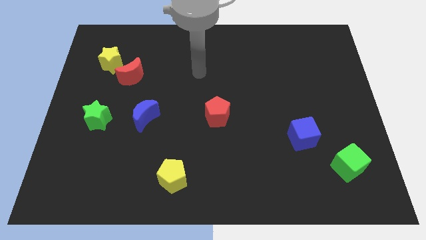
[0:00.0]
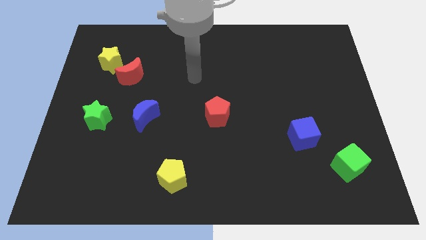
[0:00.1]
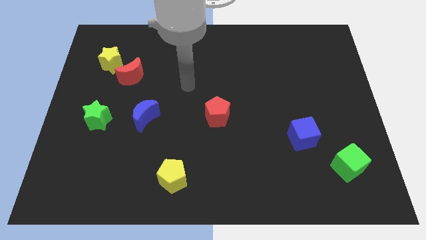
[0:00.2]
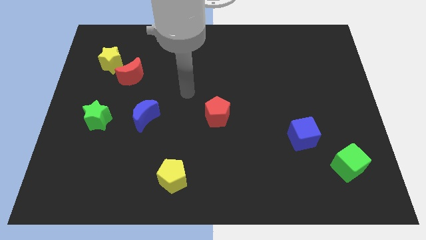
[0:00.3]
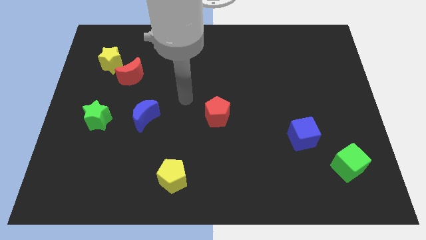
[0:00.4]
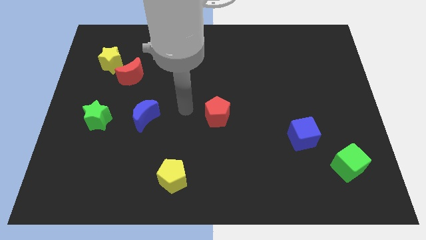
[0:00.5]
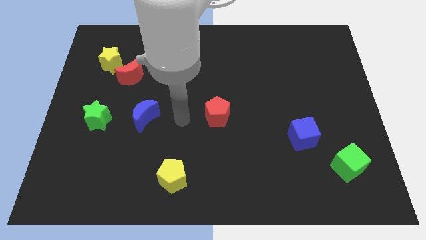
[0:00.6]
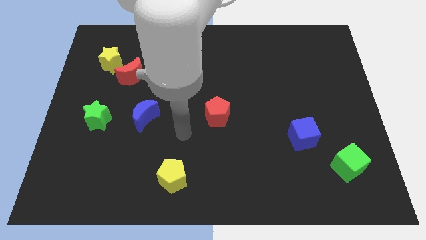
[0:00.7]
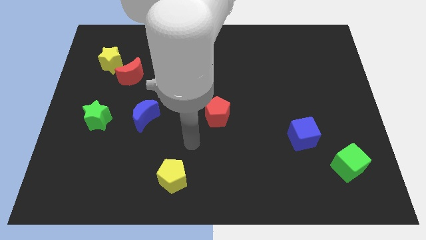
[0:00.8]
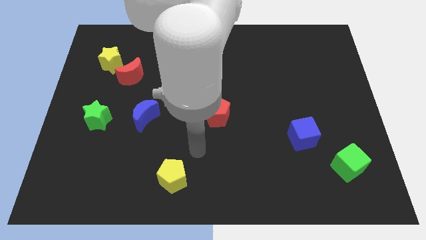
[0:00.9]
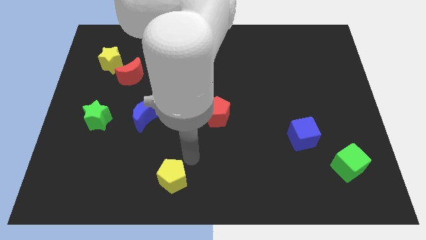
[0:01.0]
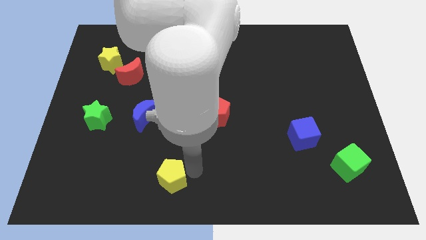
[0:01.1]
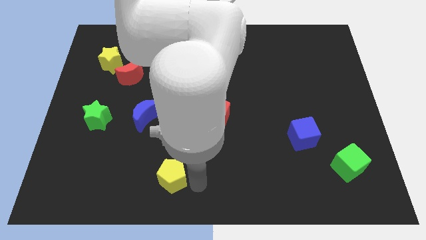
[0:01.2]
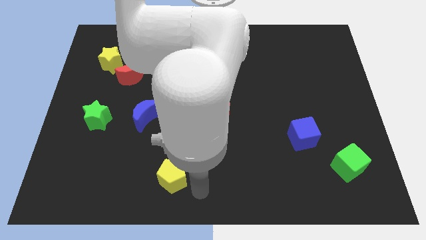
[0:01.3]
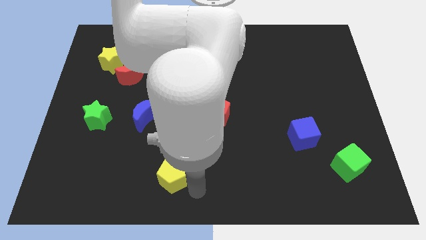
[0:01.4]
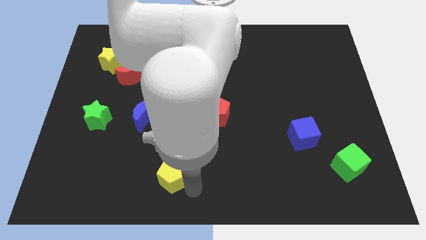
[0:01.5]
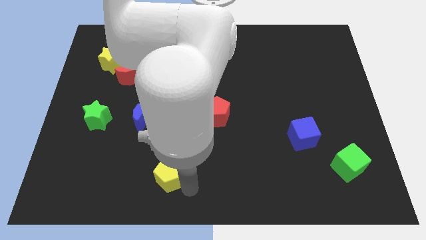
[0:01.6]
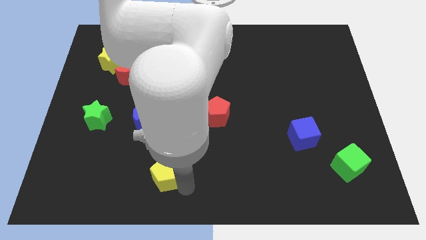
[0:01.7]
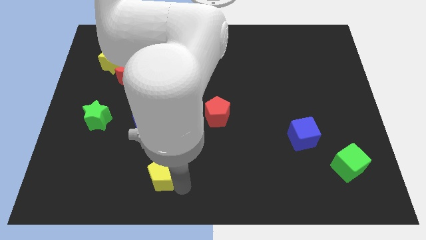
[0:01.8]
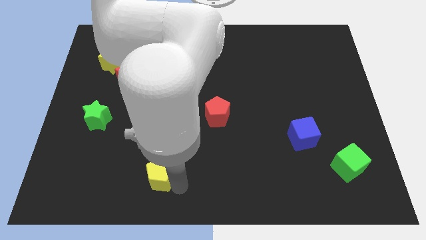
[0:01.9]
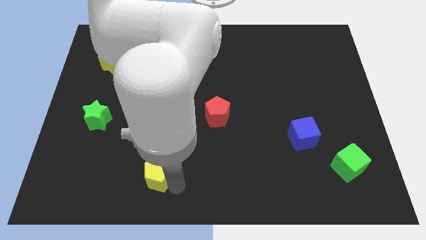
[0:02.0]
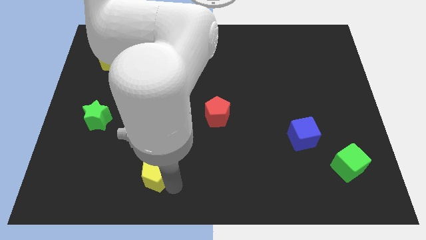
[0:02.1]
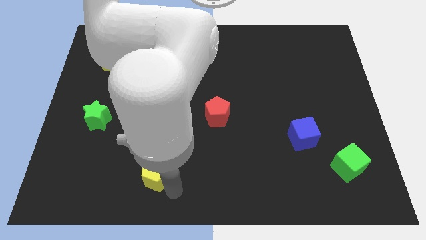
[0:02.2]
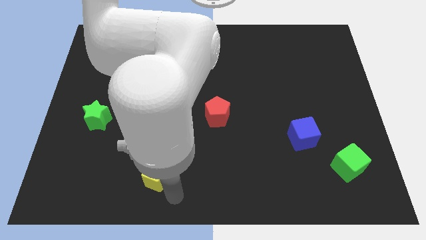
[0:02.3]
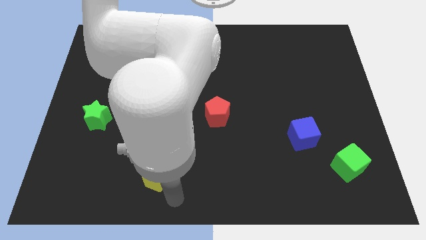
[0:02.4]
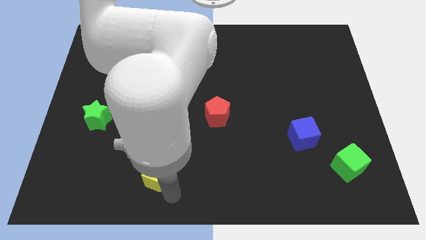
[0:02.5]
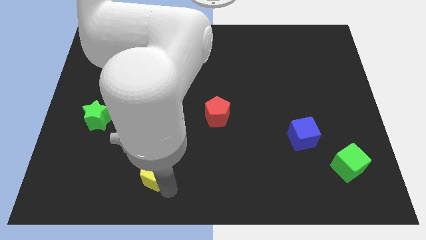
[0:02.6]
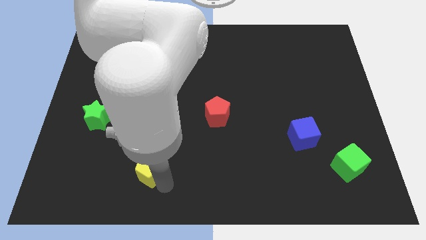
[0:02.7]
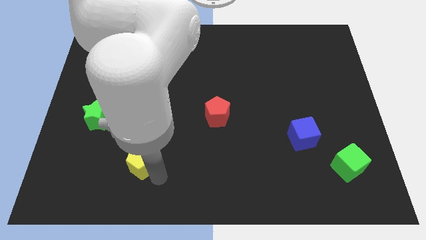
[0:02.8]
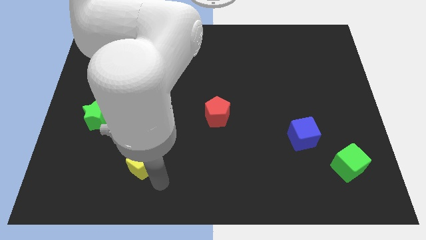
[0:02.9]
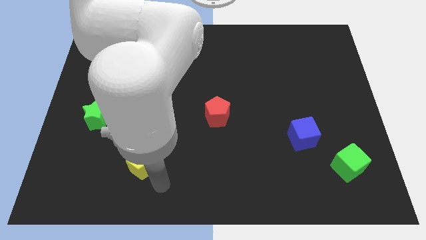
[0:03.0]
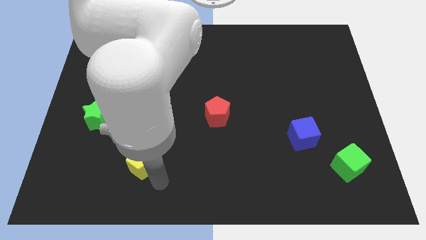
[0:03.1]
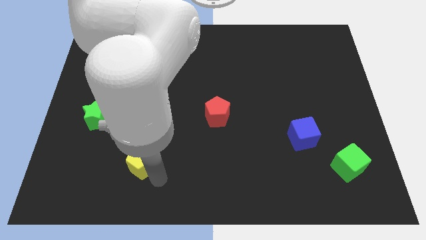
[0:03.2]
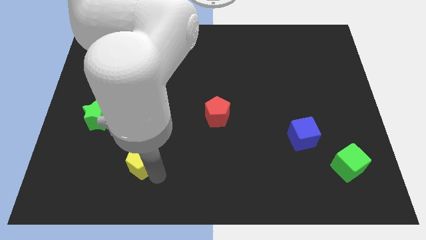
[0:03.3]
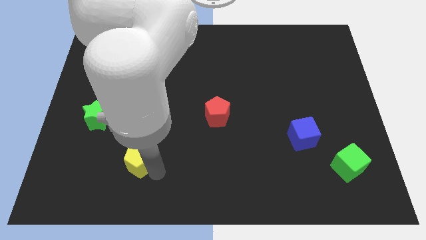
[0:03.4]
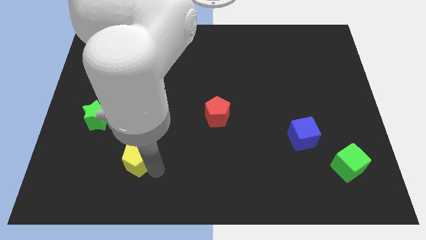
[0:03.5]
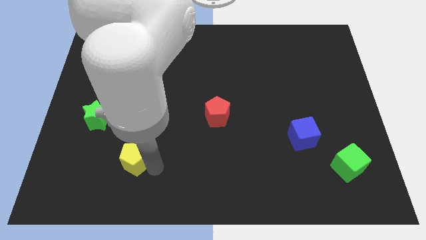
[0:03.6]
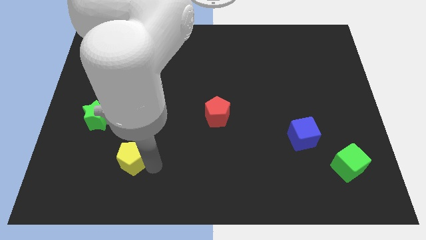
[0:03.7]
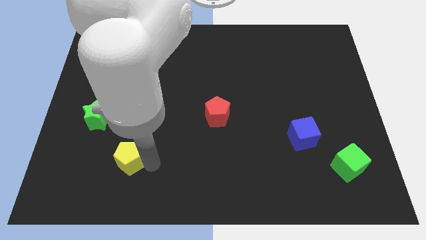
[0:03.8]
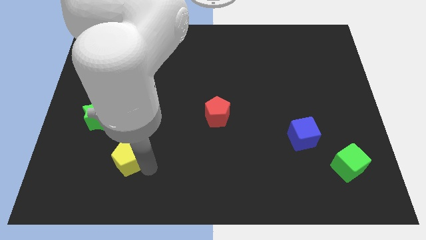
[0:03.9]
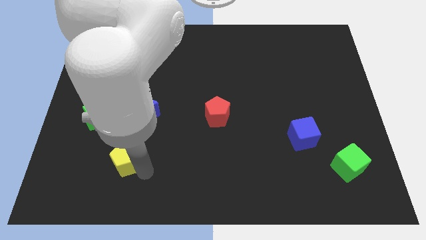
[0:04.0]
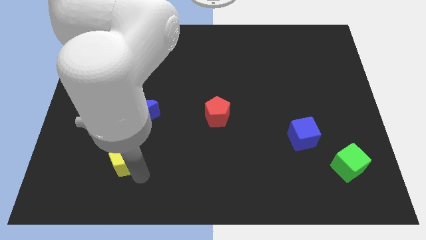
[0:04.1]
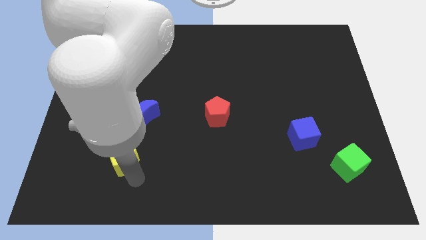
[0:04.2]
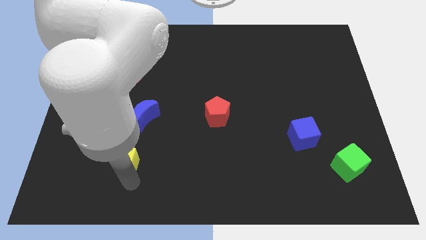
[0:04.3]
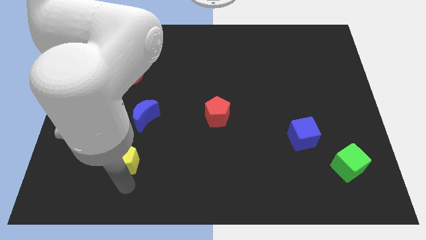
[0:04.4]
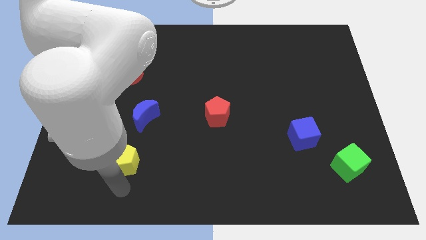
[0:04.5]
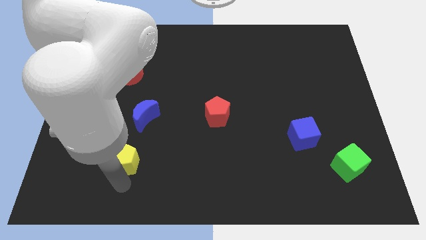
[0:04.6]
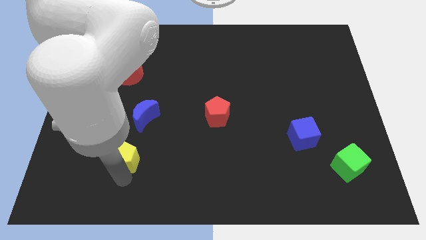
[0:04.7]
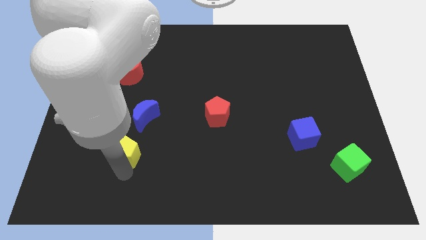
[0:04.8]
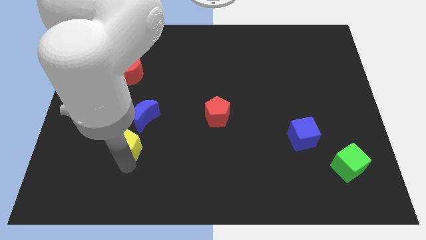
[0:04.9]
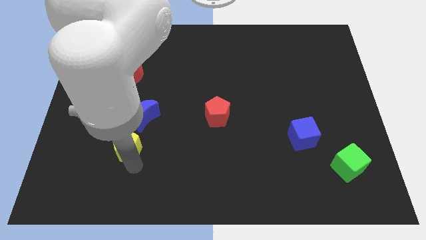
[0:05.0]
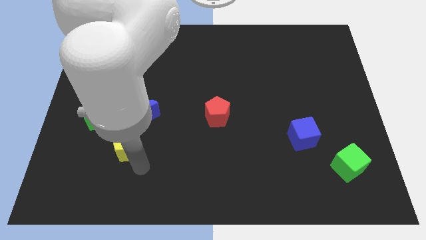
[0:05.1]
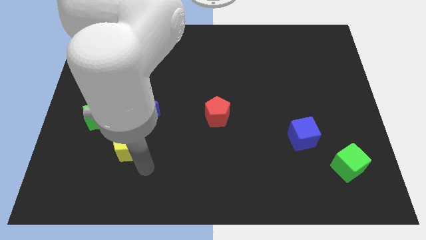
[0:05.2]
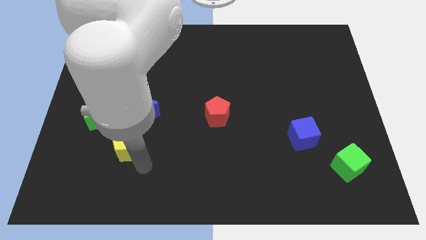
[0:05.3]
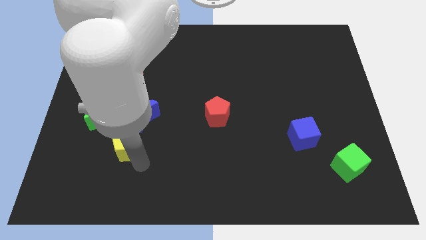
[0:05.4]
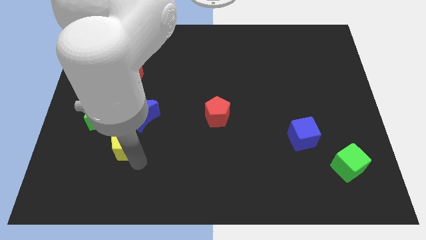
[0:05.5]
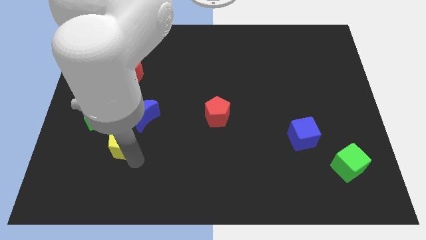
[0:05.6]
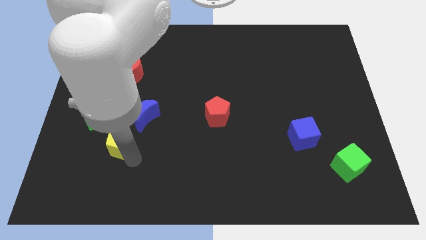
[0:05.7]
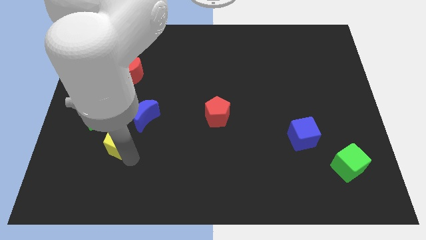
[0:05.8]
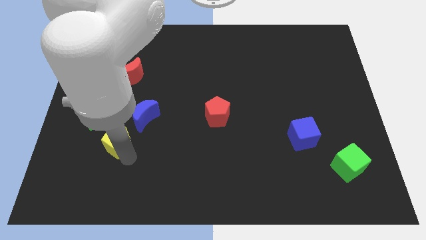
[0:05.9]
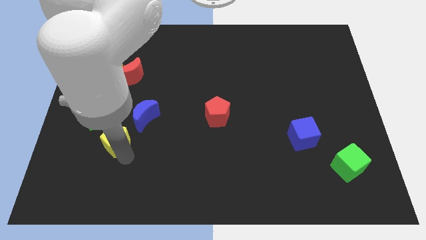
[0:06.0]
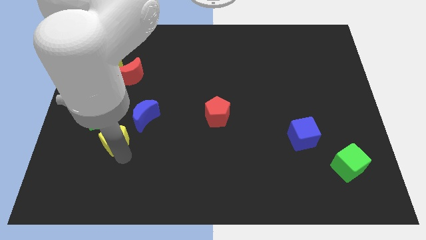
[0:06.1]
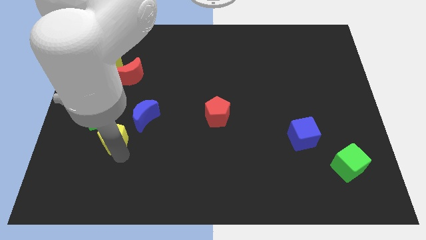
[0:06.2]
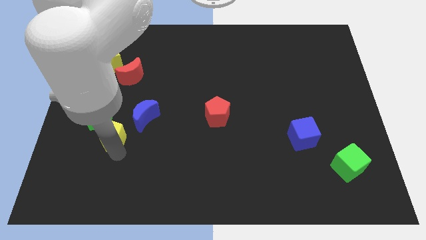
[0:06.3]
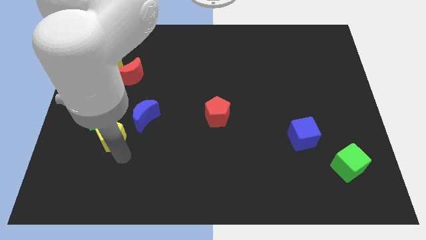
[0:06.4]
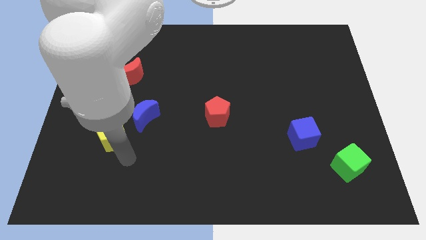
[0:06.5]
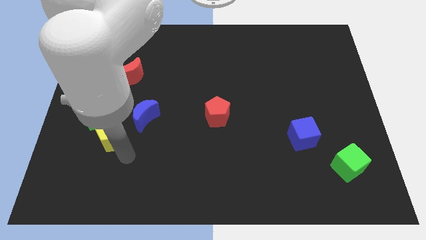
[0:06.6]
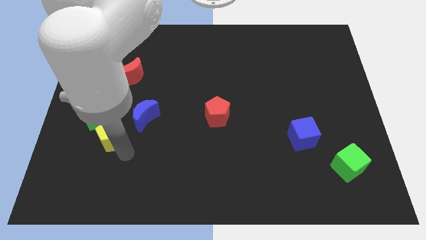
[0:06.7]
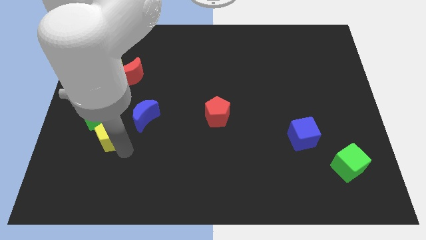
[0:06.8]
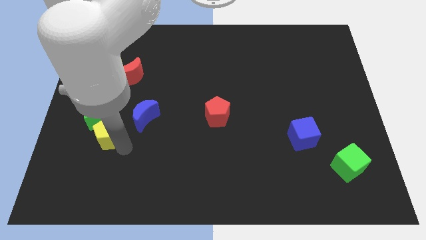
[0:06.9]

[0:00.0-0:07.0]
slide the yellow pentagon to the green star
